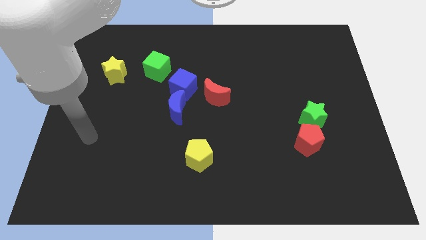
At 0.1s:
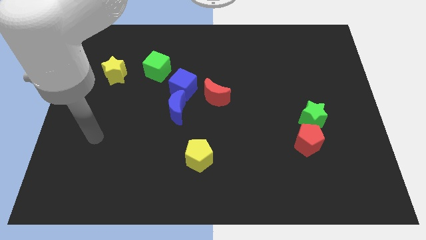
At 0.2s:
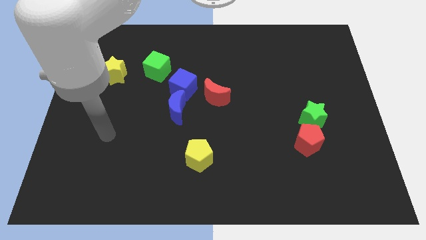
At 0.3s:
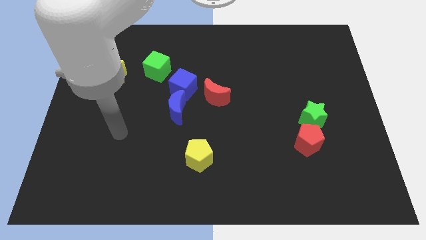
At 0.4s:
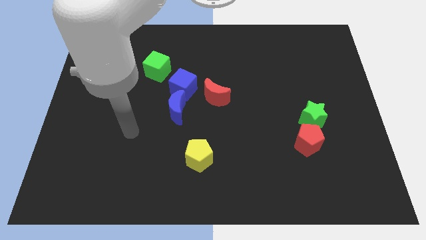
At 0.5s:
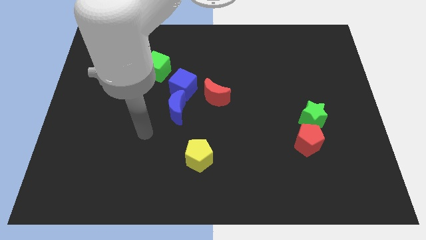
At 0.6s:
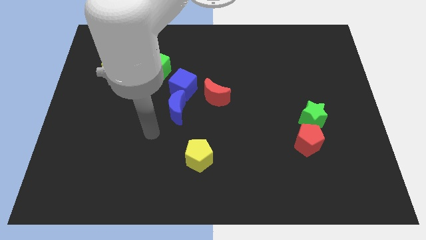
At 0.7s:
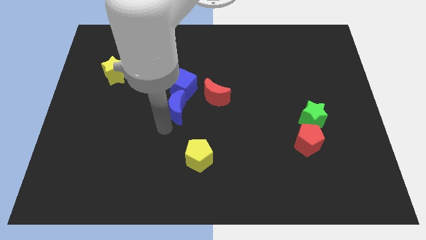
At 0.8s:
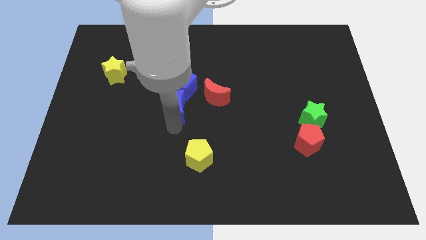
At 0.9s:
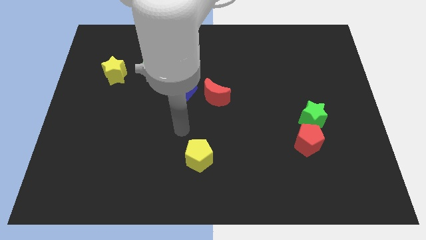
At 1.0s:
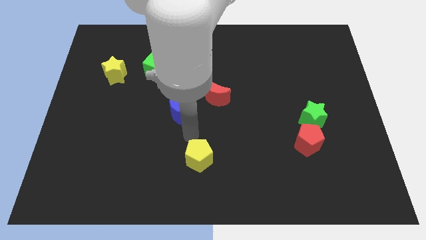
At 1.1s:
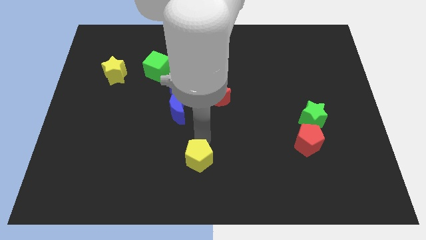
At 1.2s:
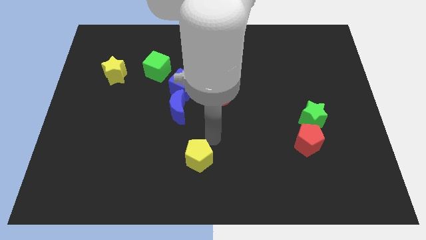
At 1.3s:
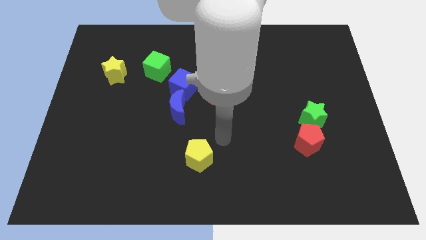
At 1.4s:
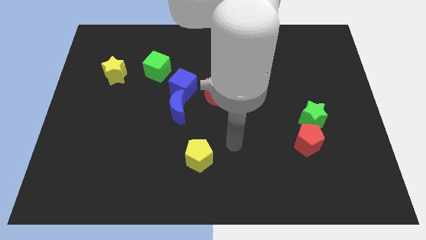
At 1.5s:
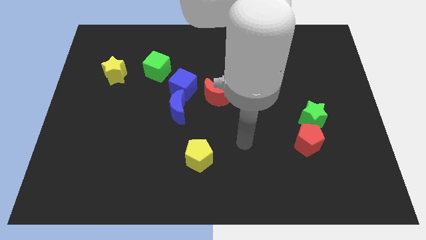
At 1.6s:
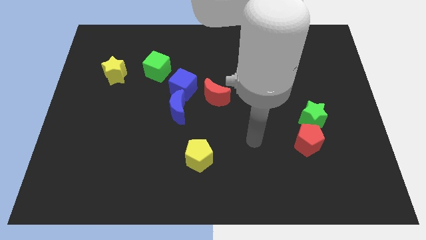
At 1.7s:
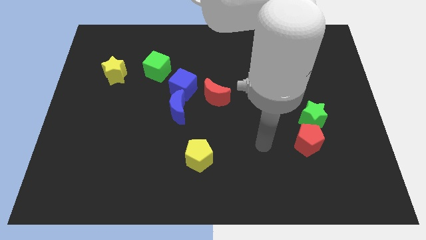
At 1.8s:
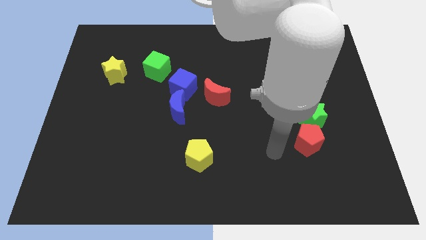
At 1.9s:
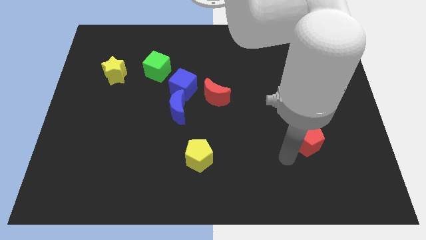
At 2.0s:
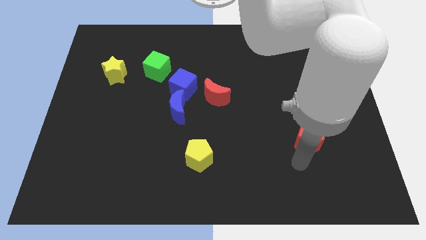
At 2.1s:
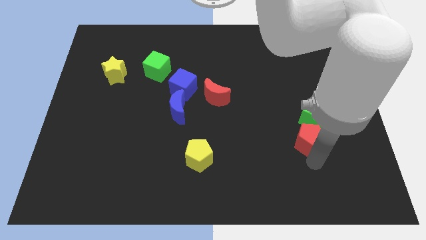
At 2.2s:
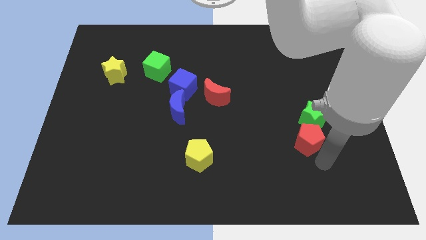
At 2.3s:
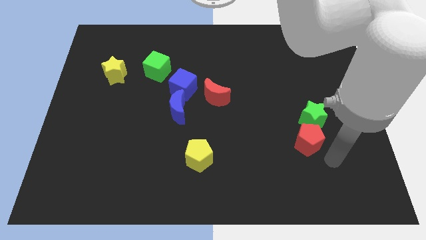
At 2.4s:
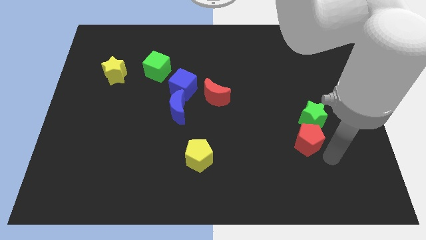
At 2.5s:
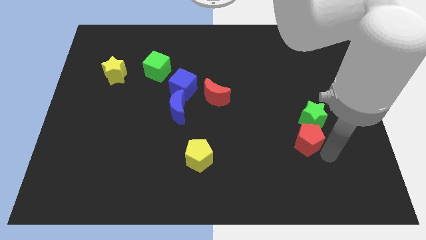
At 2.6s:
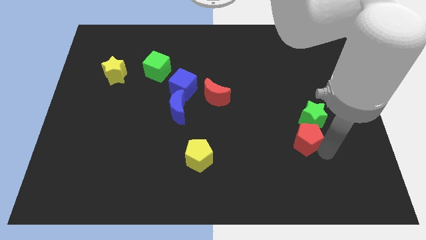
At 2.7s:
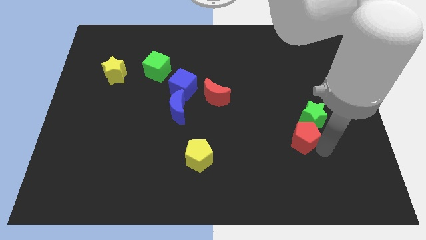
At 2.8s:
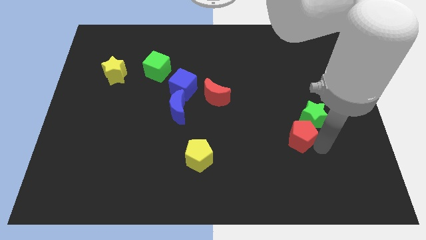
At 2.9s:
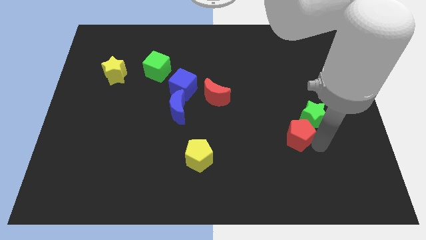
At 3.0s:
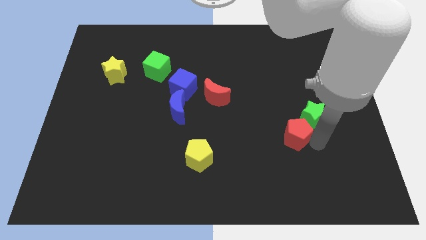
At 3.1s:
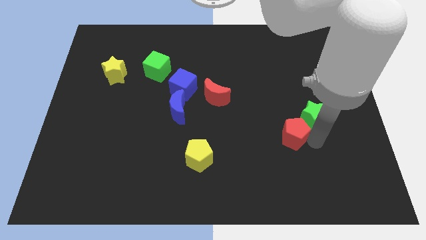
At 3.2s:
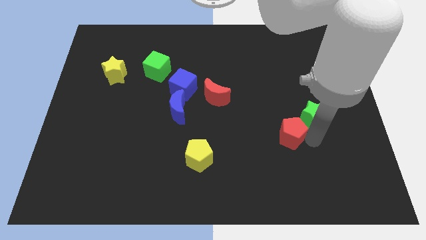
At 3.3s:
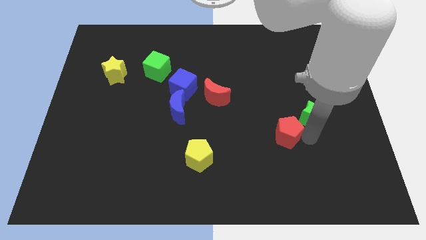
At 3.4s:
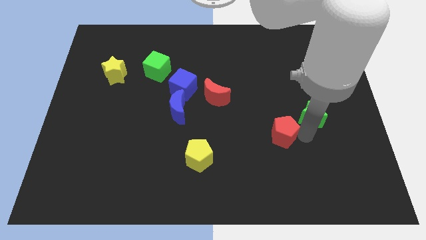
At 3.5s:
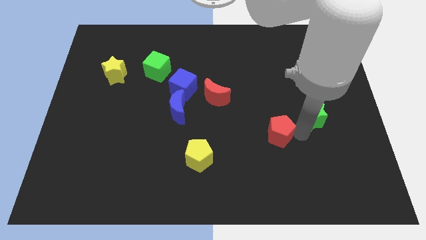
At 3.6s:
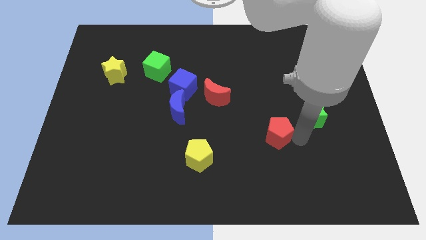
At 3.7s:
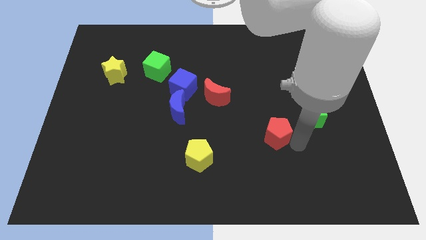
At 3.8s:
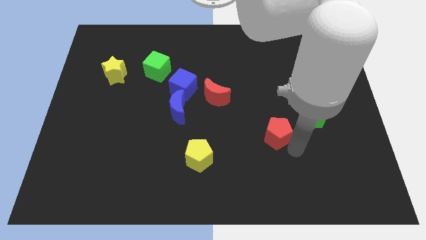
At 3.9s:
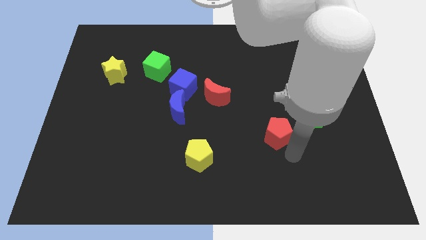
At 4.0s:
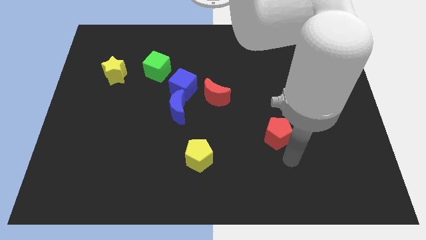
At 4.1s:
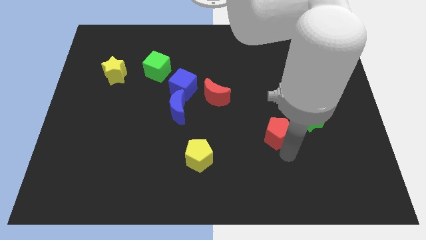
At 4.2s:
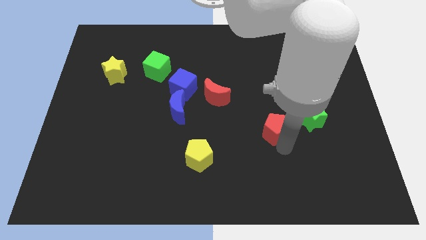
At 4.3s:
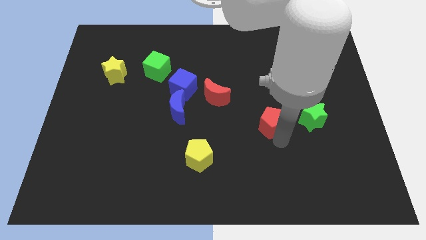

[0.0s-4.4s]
slide the red pentagon a bit up and left diagonally

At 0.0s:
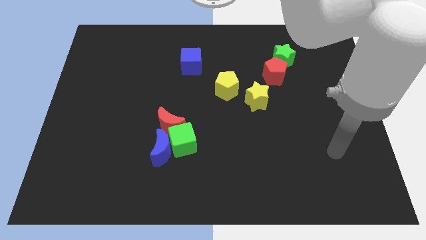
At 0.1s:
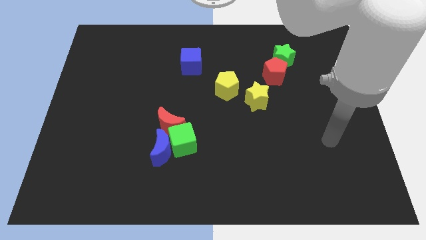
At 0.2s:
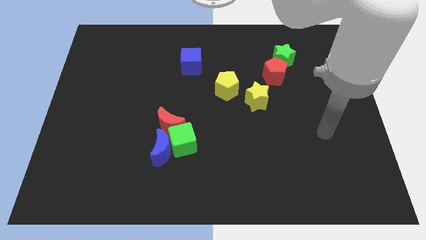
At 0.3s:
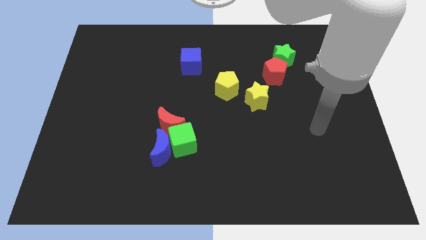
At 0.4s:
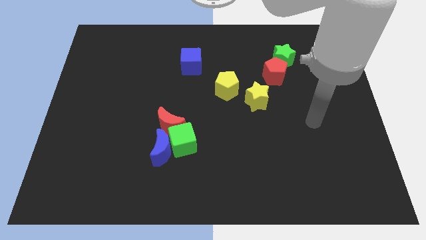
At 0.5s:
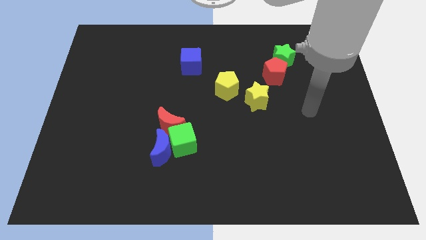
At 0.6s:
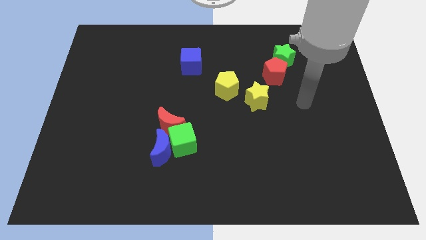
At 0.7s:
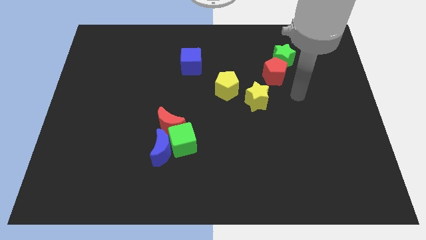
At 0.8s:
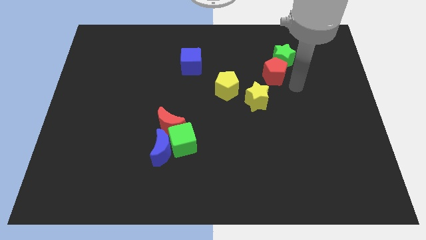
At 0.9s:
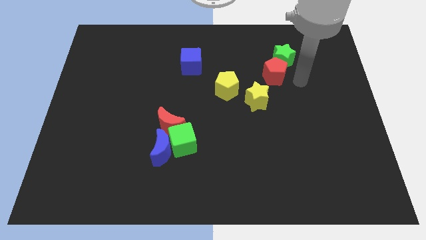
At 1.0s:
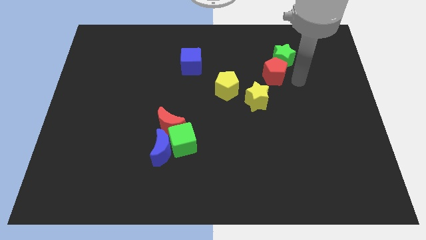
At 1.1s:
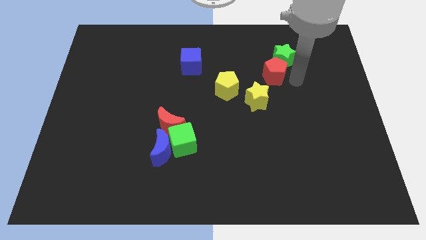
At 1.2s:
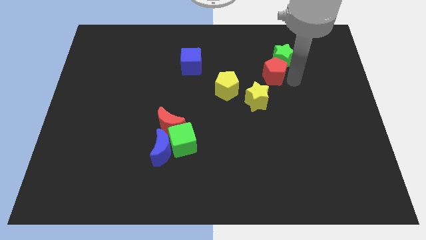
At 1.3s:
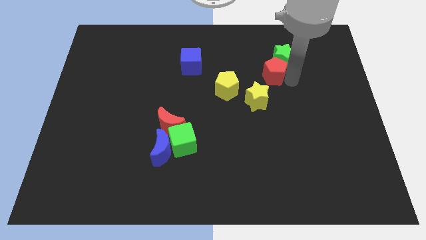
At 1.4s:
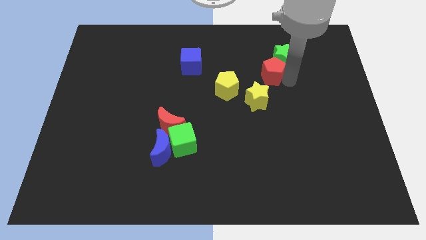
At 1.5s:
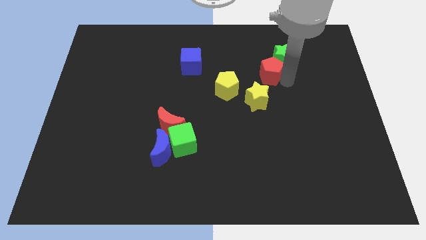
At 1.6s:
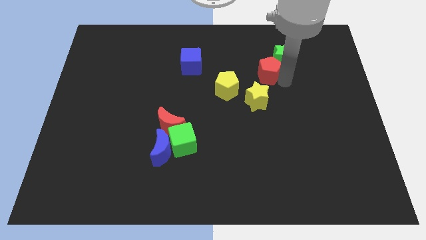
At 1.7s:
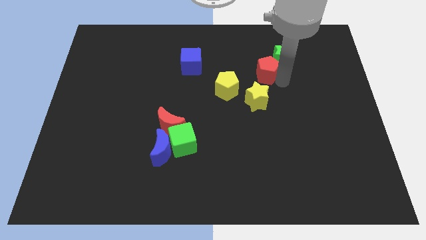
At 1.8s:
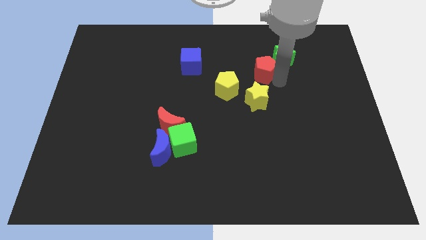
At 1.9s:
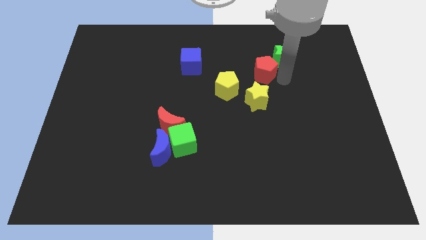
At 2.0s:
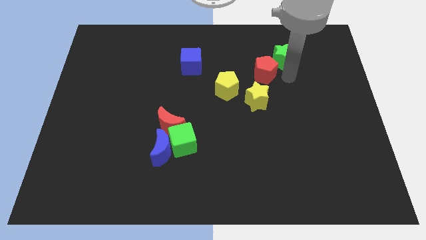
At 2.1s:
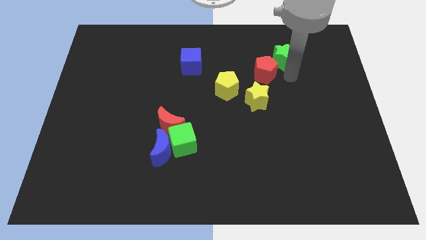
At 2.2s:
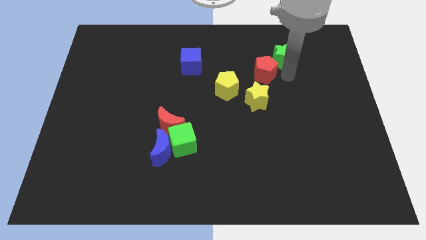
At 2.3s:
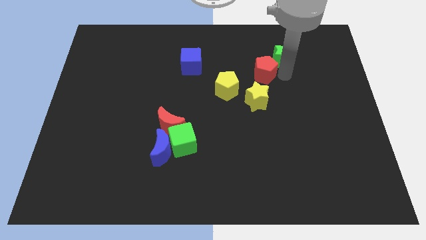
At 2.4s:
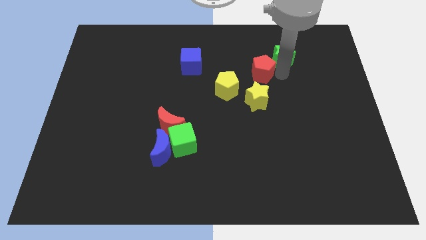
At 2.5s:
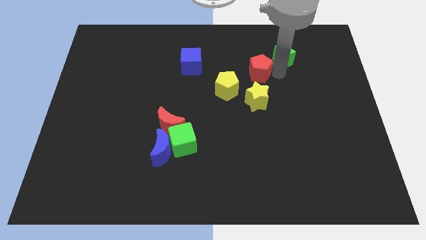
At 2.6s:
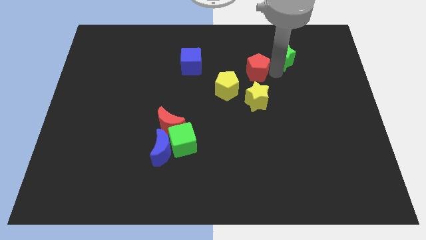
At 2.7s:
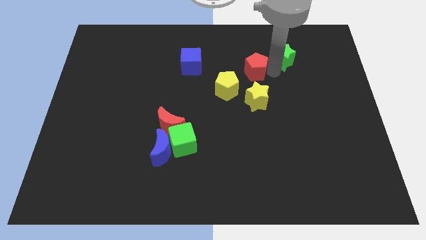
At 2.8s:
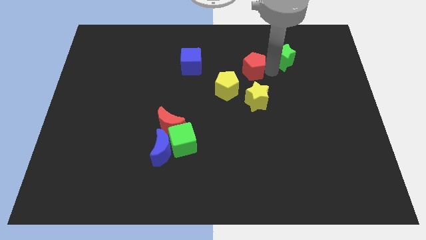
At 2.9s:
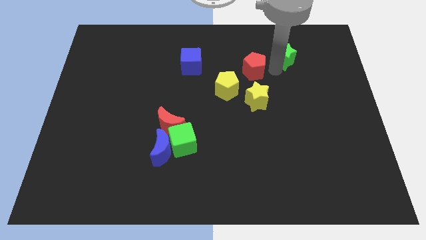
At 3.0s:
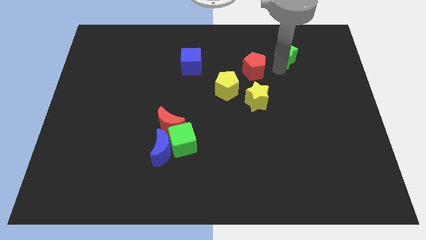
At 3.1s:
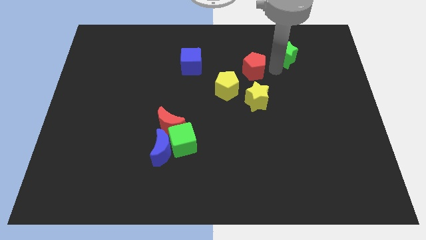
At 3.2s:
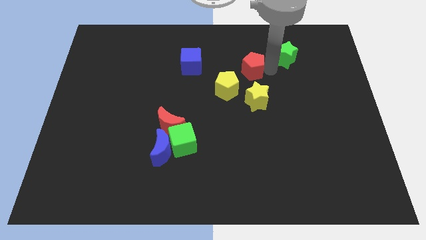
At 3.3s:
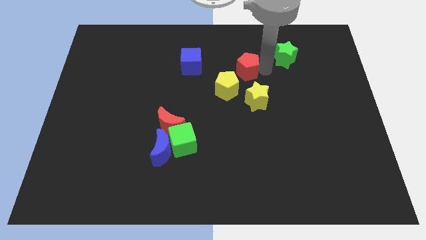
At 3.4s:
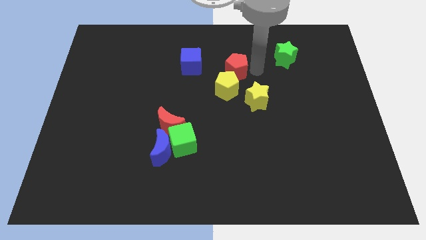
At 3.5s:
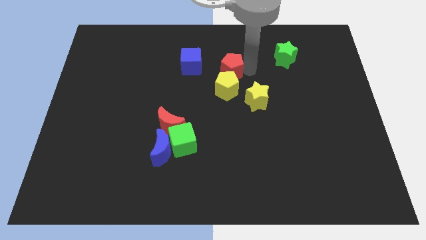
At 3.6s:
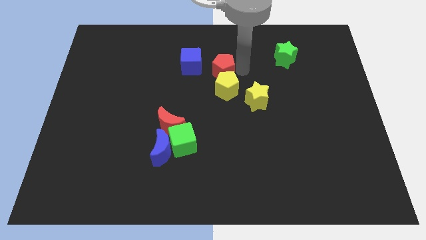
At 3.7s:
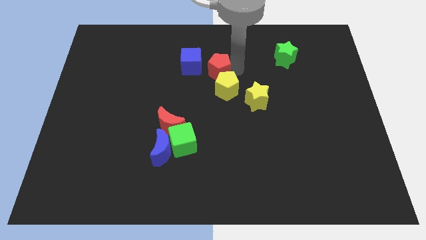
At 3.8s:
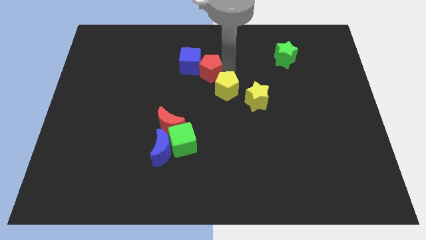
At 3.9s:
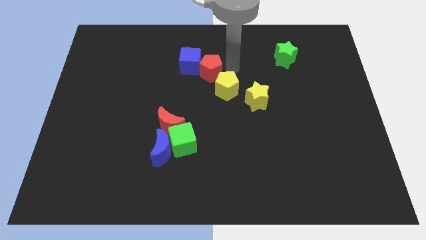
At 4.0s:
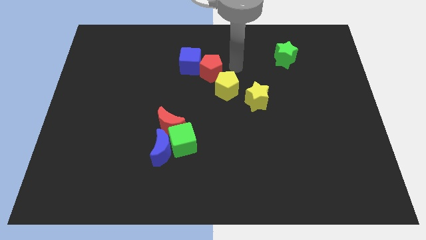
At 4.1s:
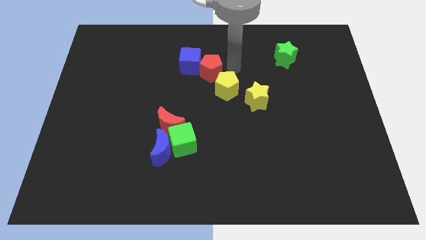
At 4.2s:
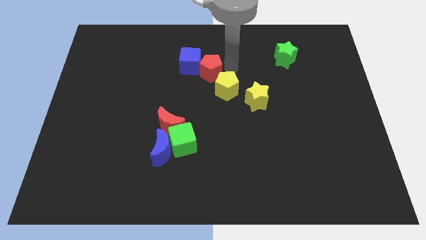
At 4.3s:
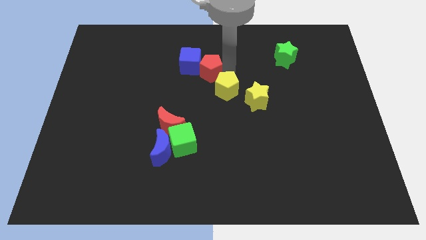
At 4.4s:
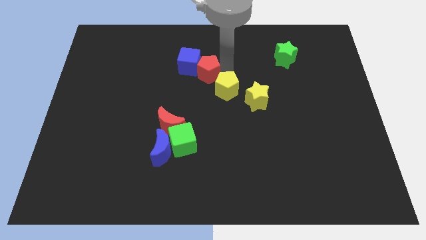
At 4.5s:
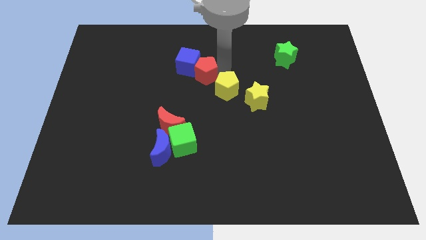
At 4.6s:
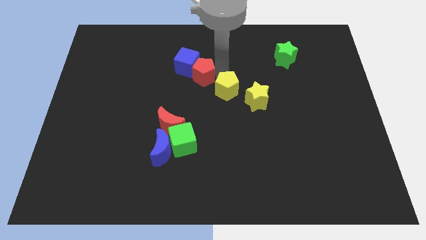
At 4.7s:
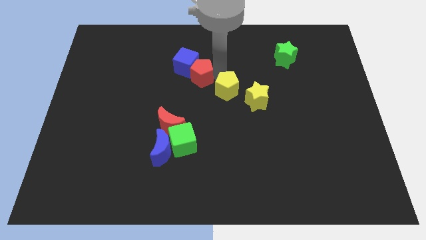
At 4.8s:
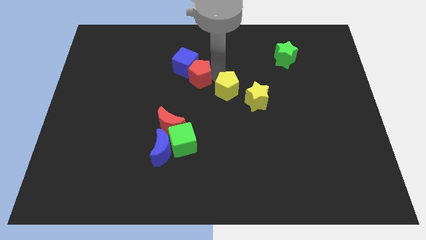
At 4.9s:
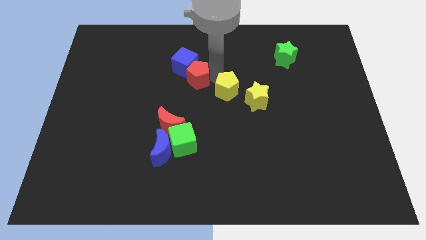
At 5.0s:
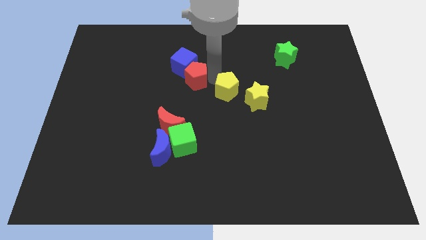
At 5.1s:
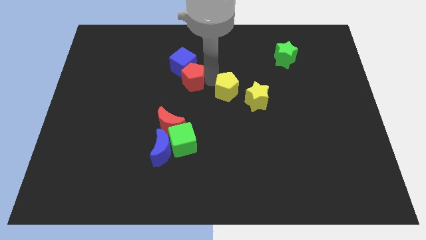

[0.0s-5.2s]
push the red pentagon to the left
